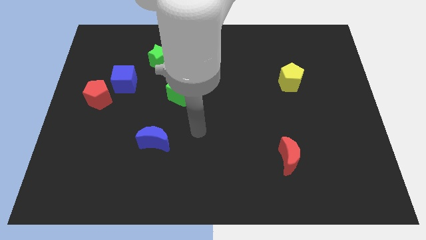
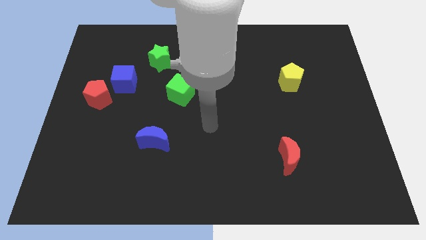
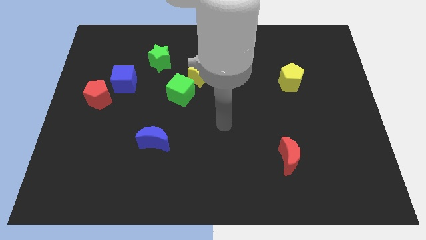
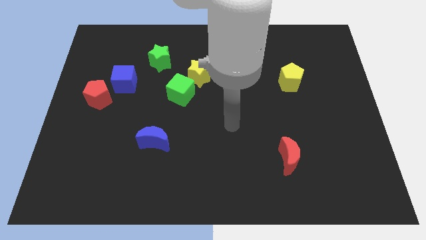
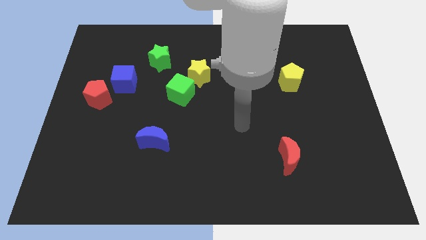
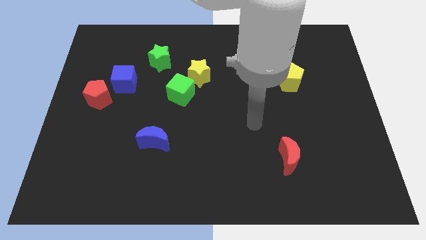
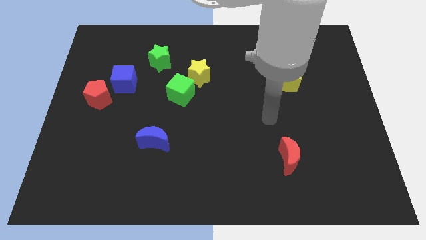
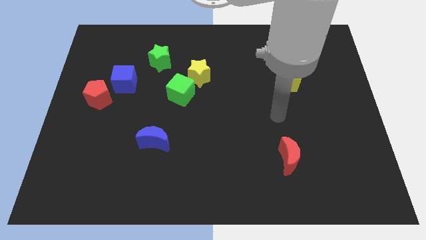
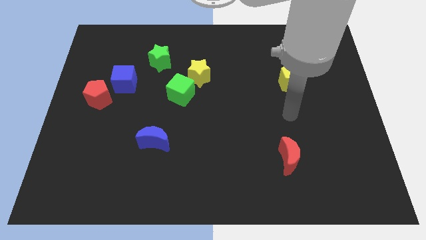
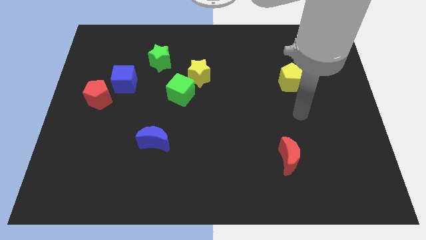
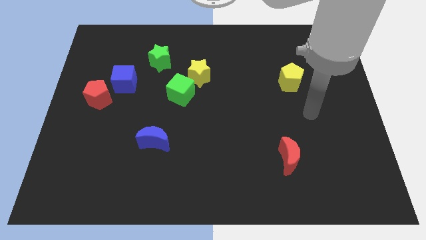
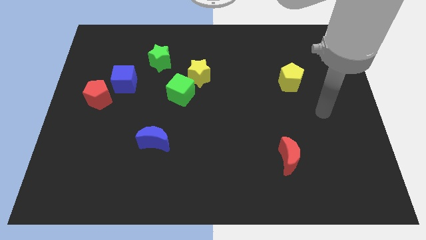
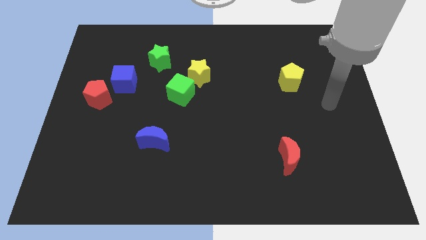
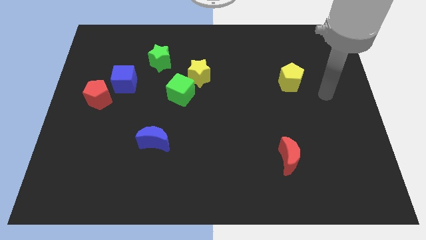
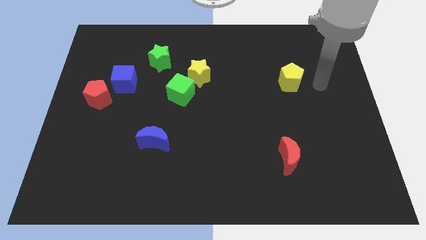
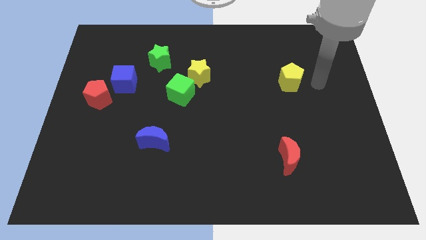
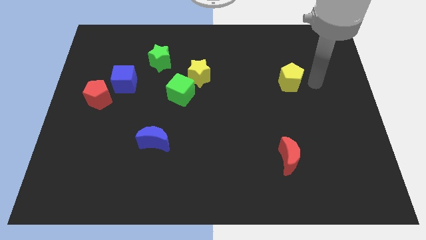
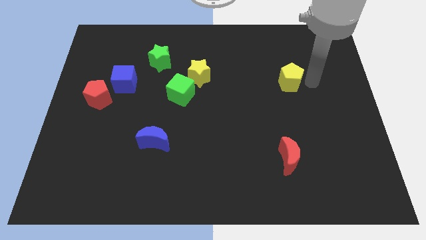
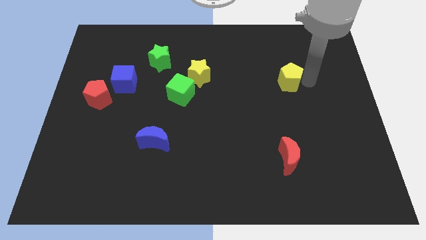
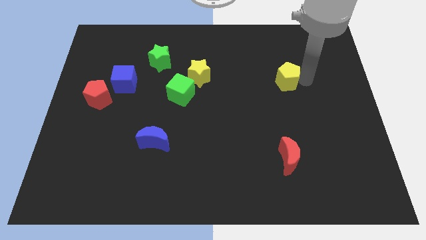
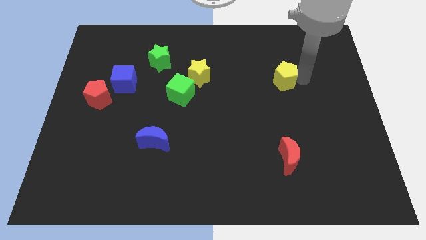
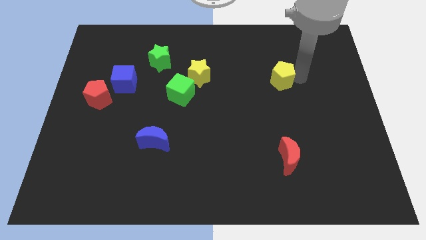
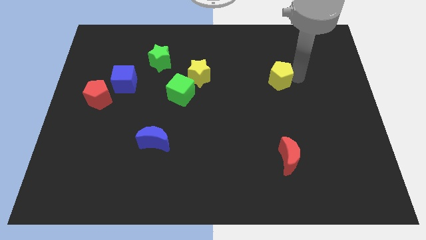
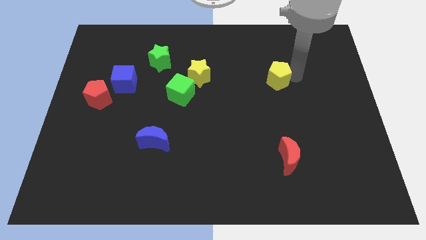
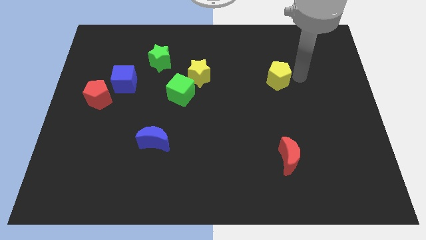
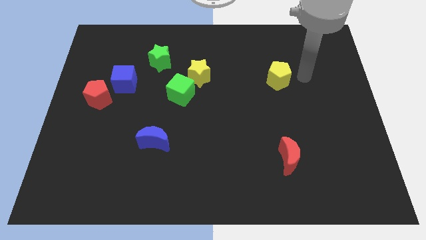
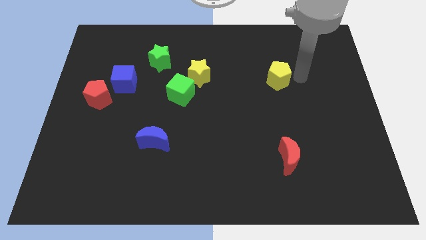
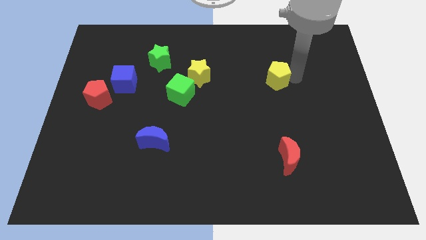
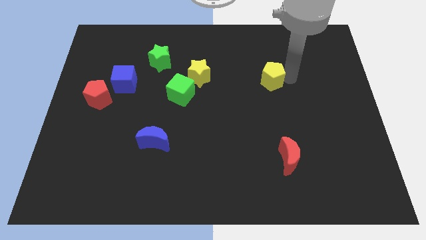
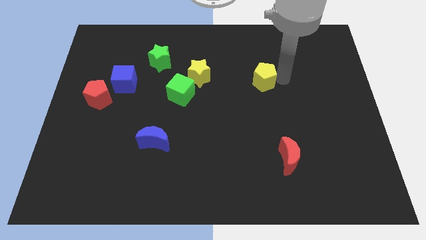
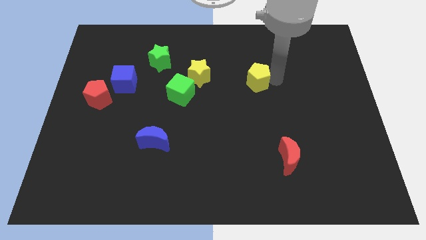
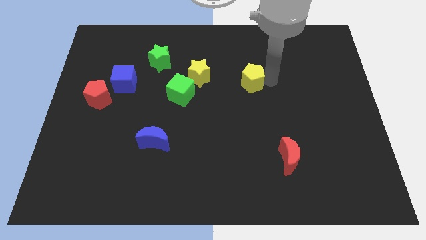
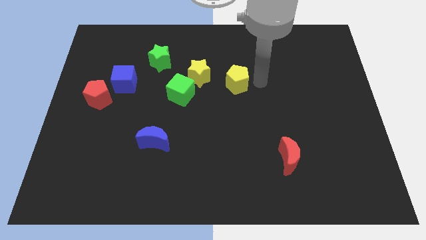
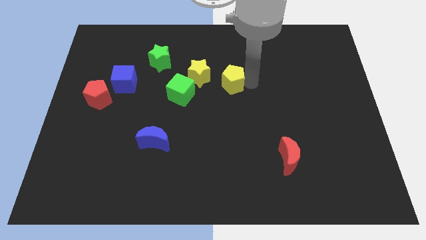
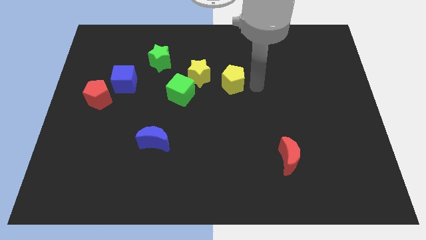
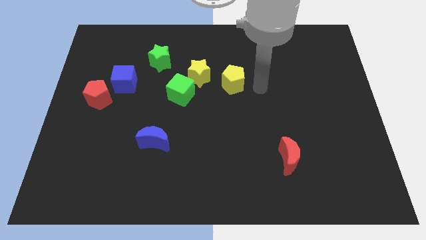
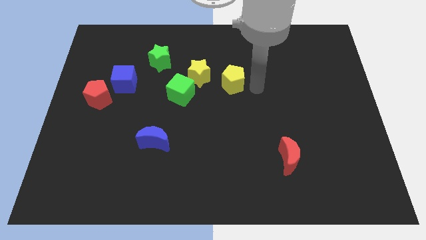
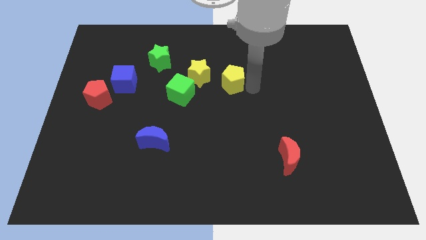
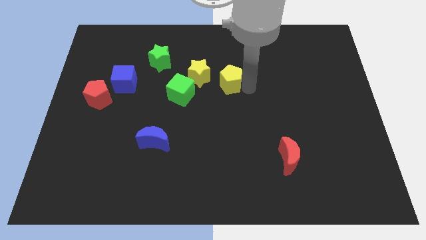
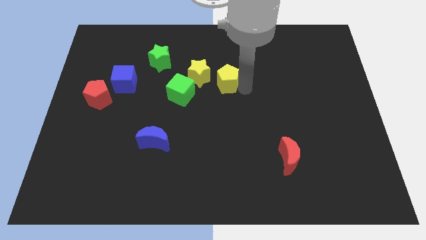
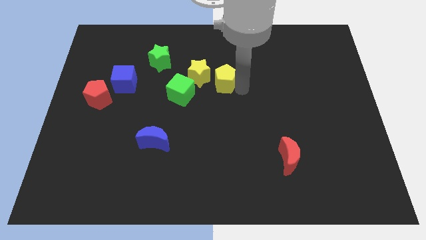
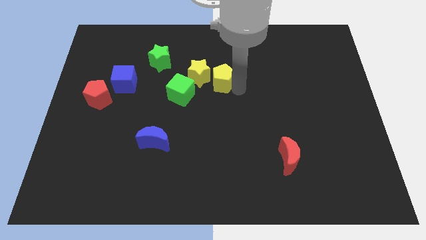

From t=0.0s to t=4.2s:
slide the yellow pentagon to the yellow star

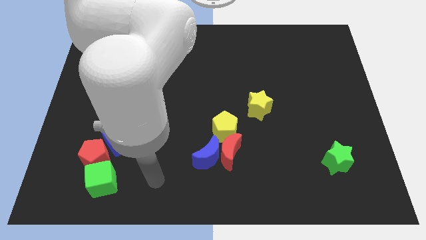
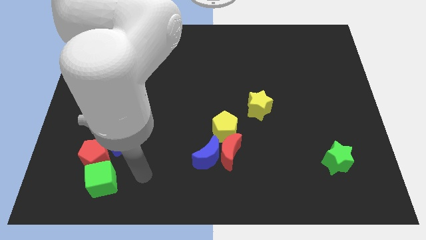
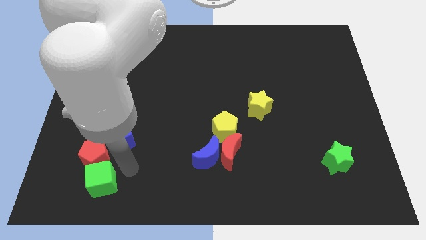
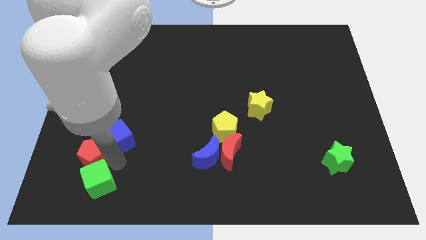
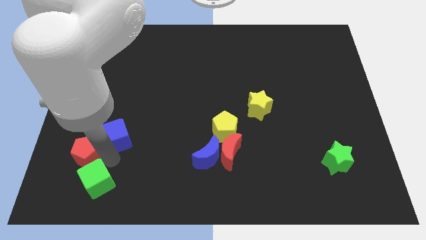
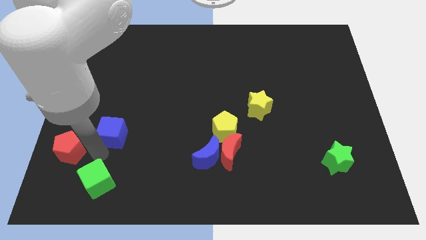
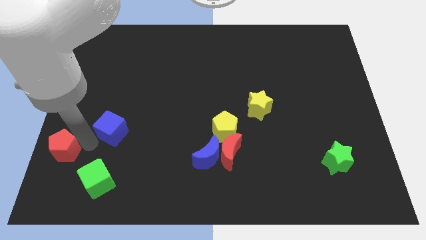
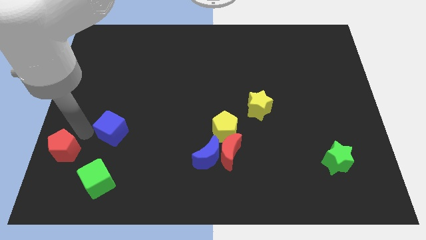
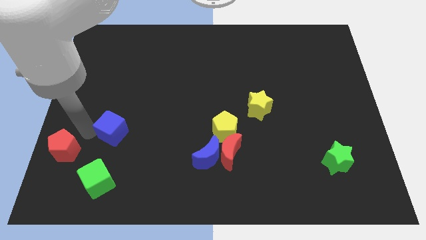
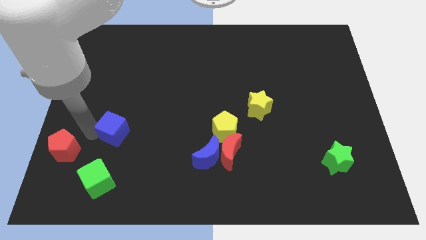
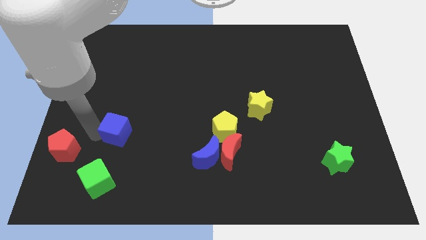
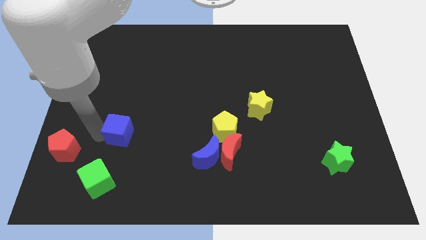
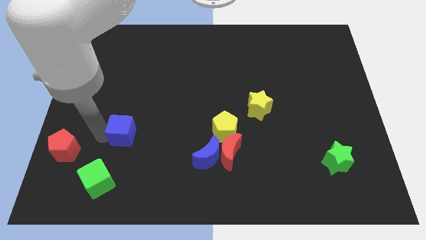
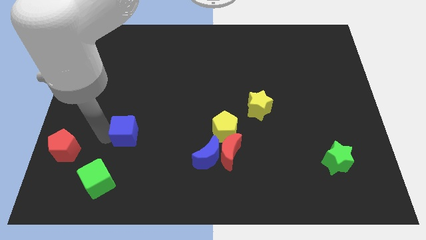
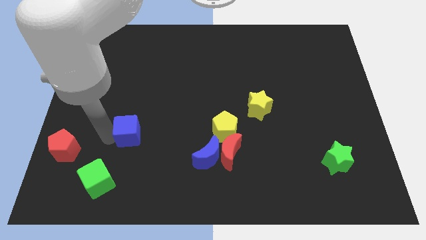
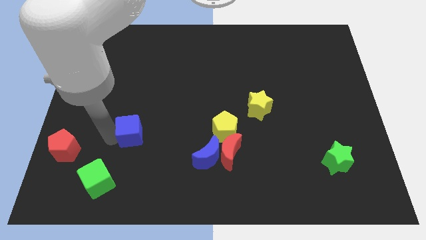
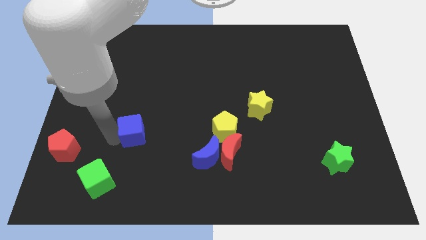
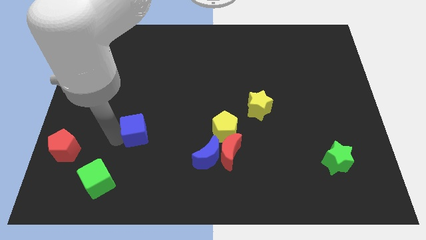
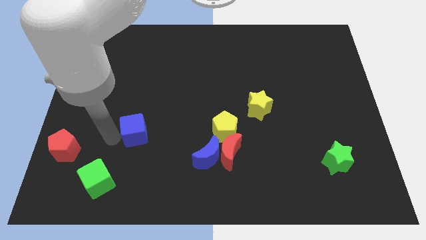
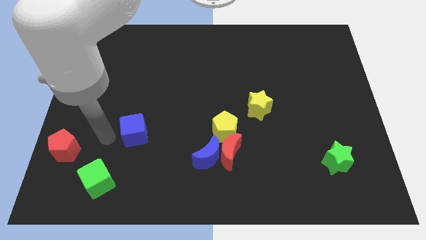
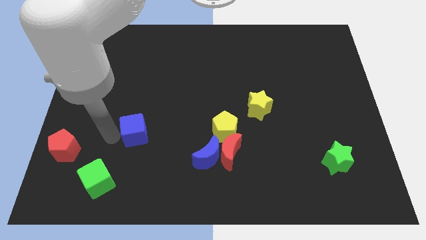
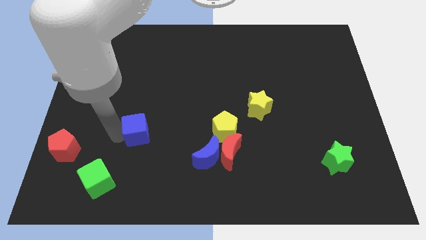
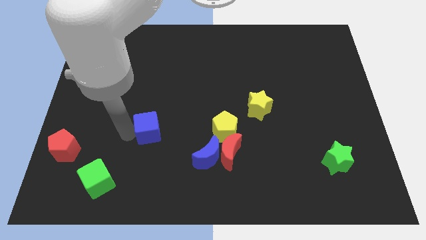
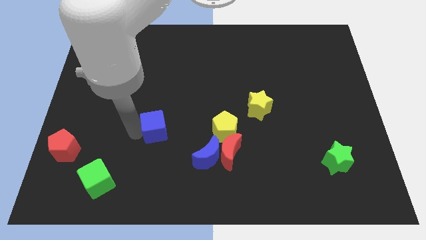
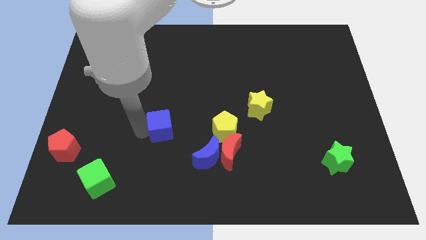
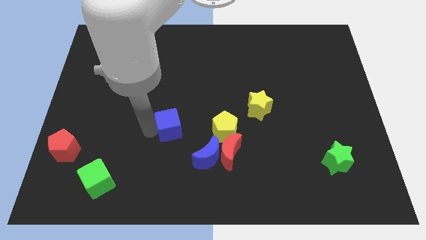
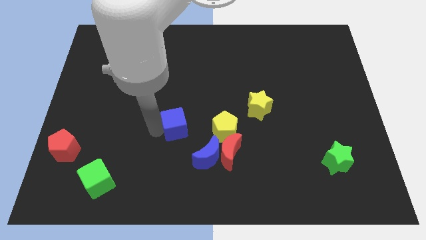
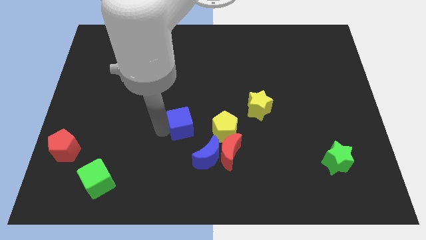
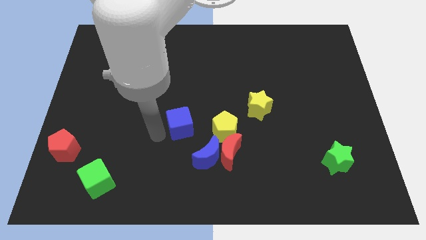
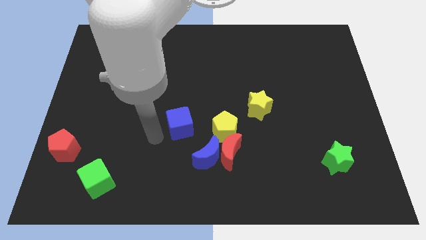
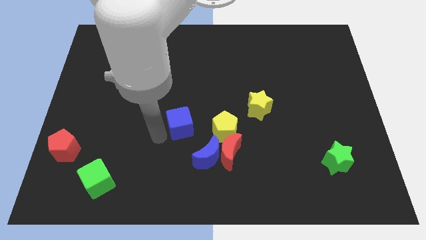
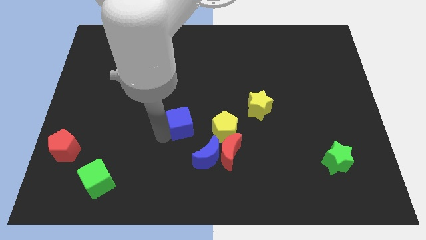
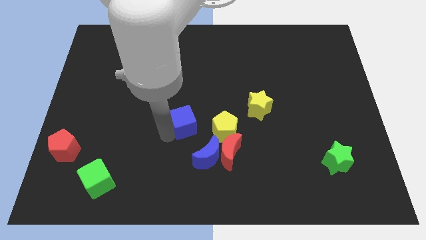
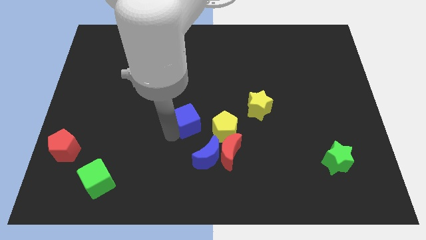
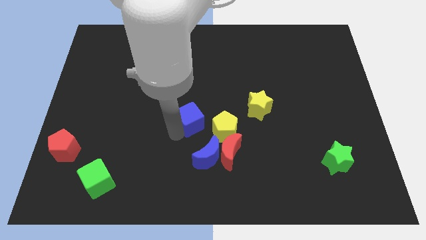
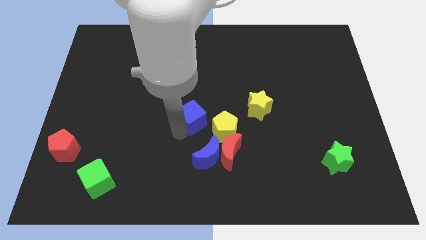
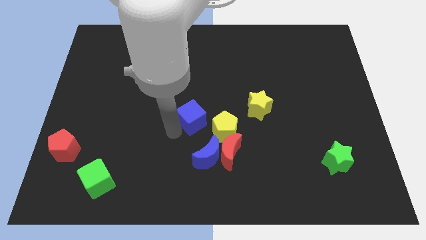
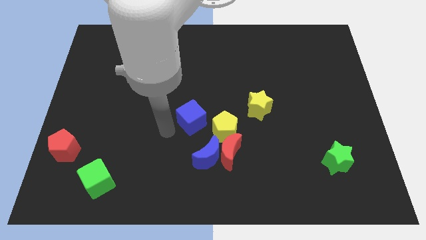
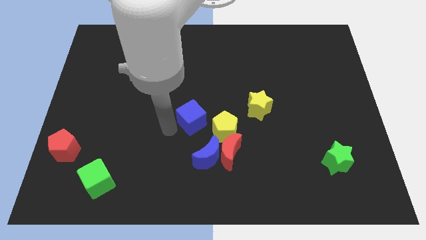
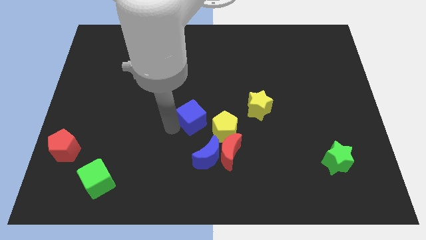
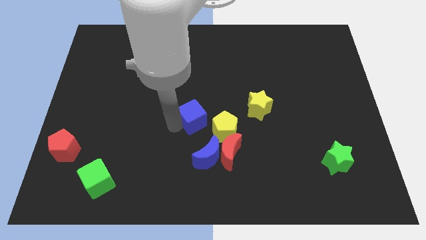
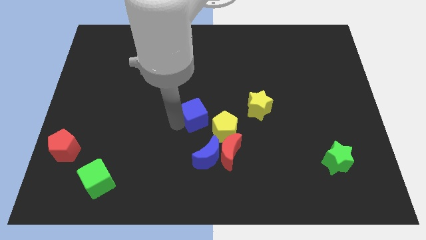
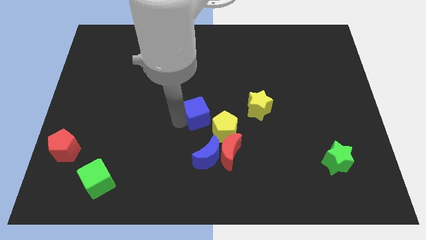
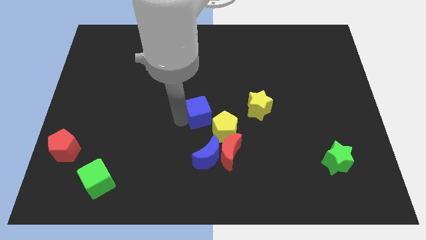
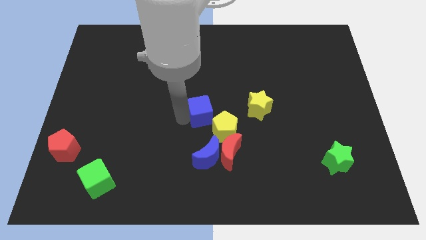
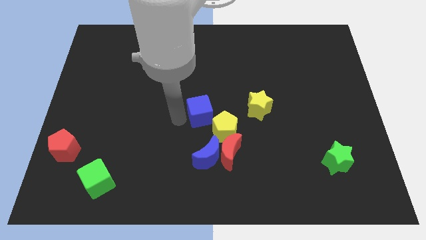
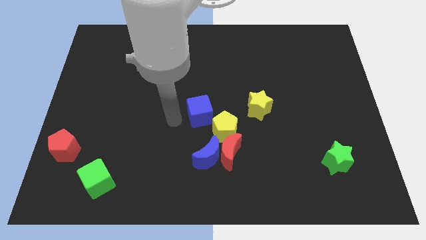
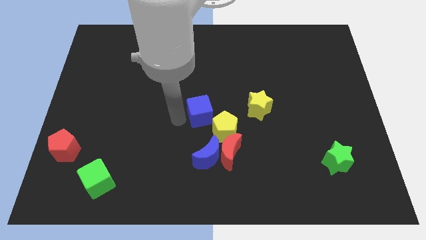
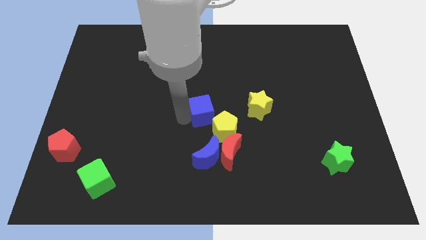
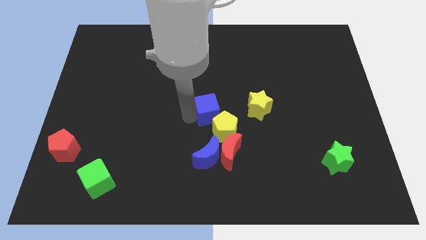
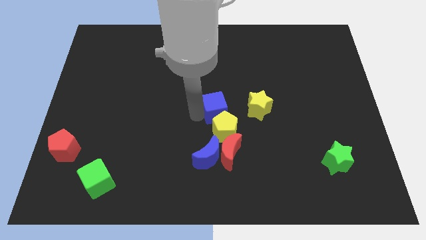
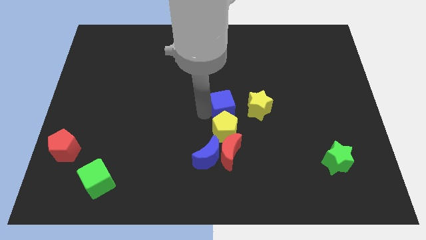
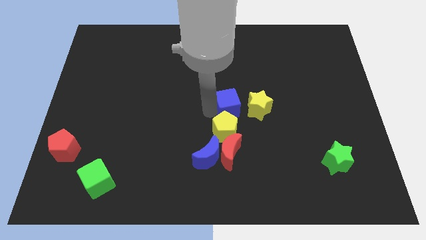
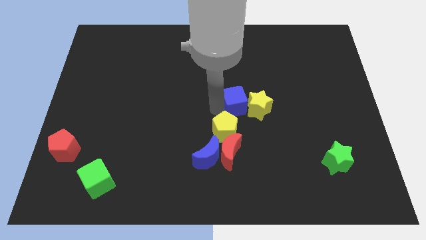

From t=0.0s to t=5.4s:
put the blue cube to the yellow star
